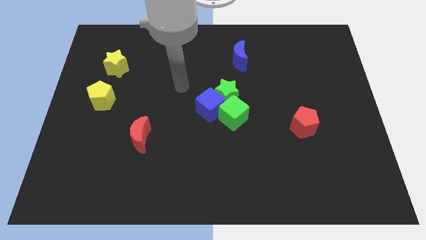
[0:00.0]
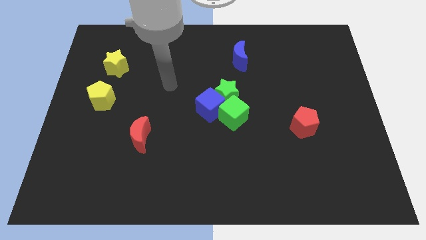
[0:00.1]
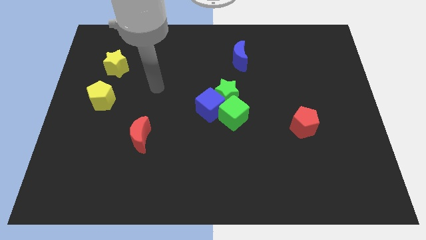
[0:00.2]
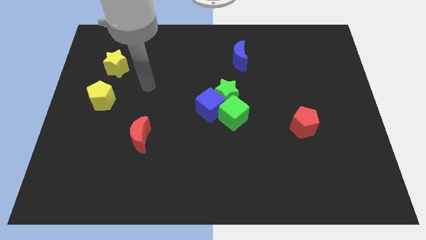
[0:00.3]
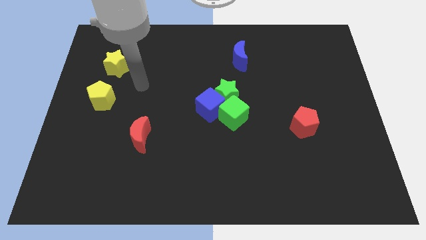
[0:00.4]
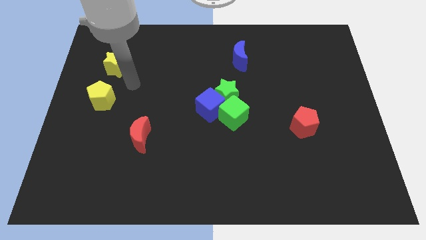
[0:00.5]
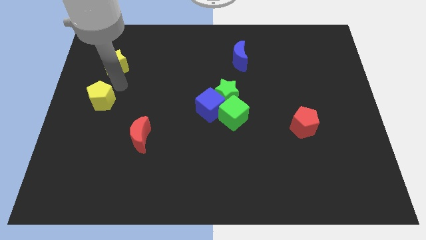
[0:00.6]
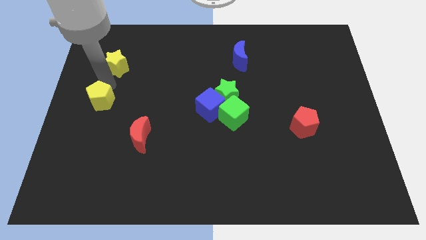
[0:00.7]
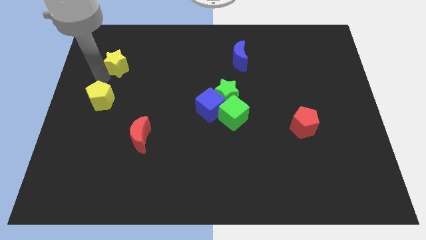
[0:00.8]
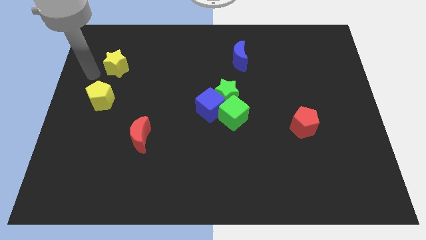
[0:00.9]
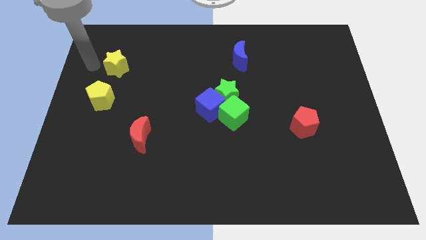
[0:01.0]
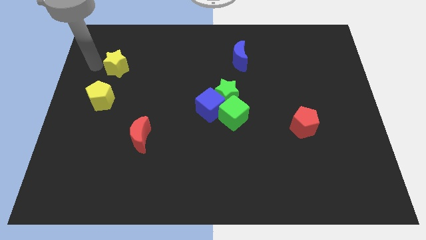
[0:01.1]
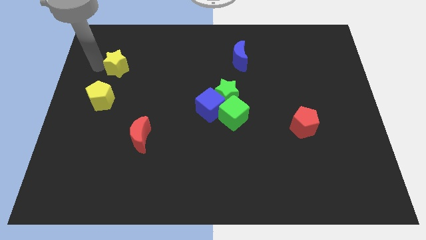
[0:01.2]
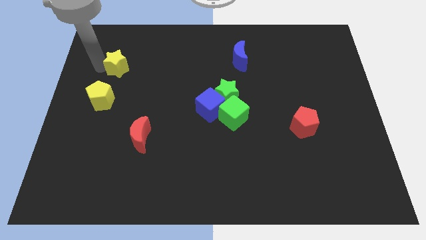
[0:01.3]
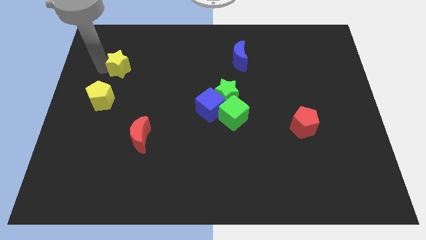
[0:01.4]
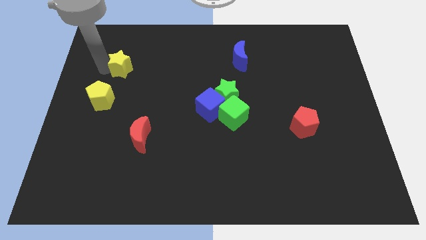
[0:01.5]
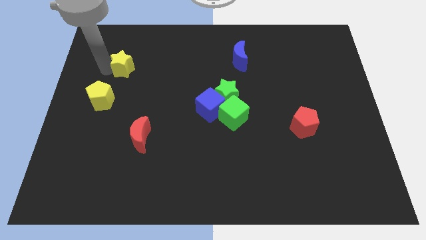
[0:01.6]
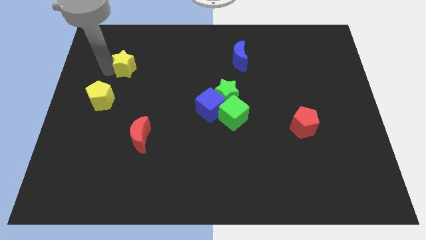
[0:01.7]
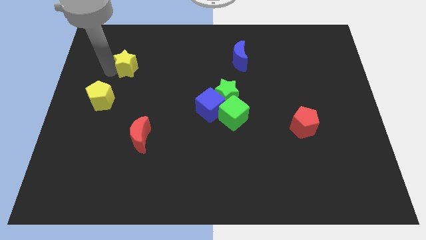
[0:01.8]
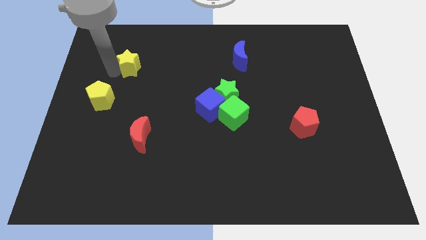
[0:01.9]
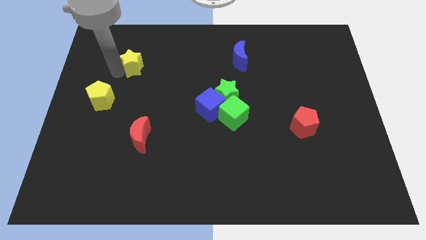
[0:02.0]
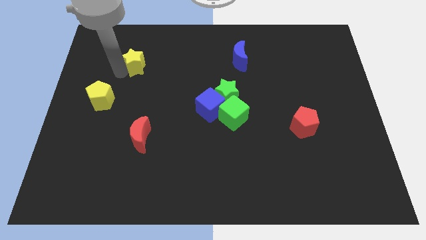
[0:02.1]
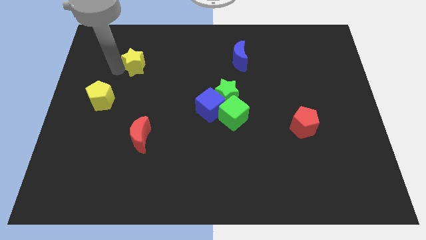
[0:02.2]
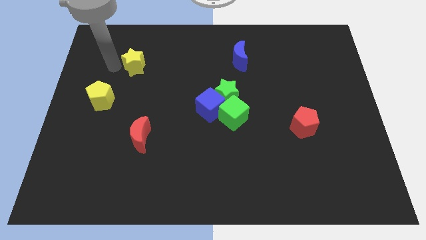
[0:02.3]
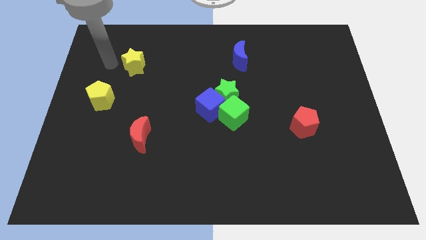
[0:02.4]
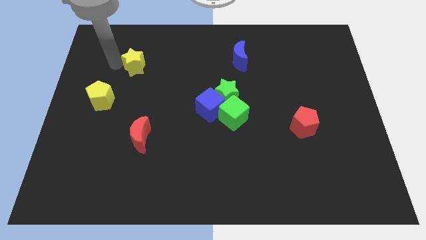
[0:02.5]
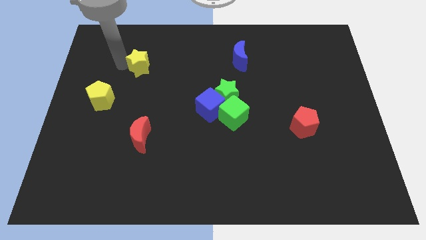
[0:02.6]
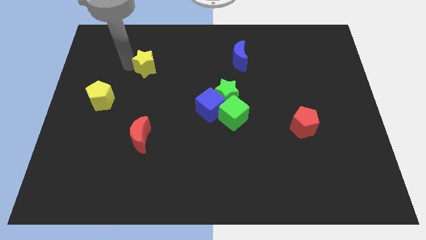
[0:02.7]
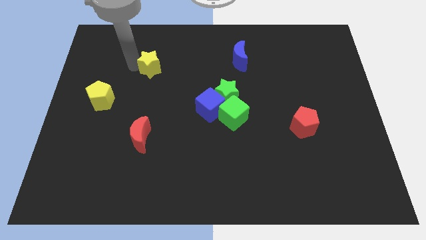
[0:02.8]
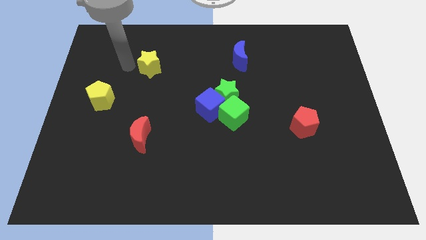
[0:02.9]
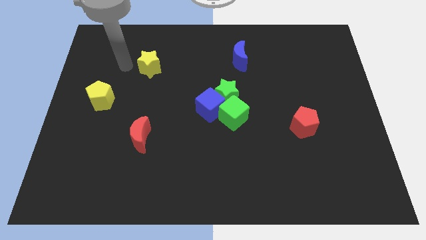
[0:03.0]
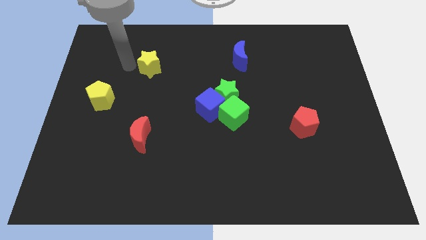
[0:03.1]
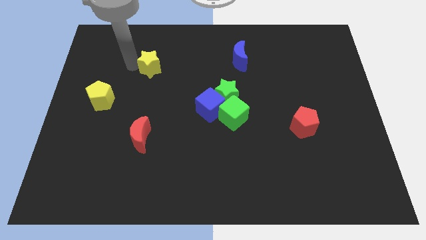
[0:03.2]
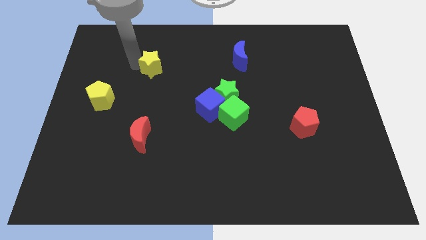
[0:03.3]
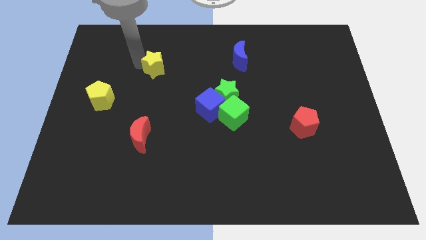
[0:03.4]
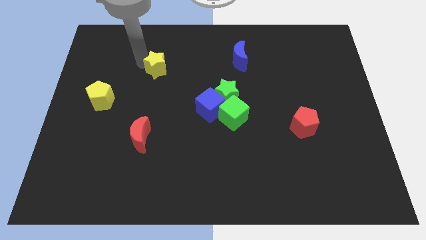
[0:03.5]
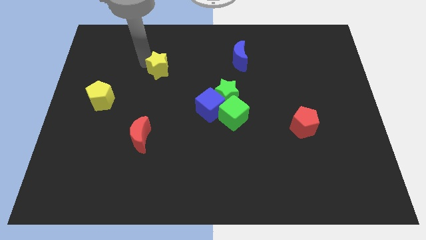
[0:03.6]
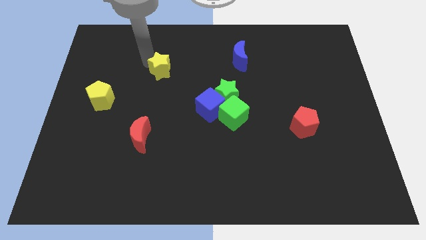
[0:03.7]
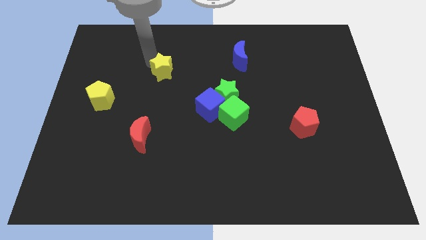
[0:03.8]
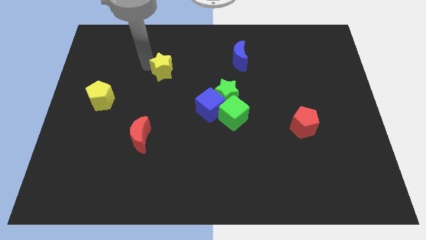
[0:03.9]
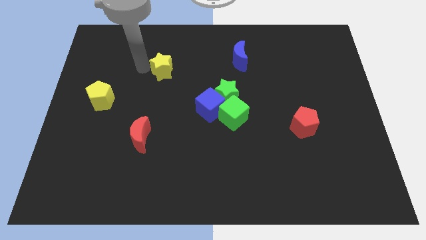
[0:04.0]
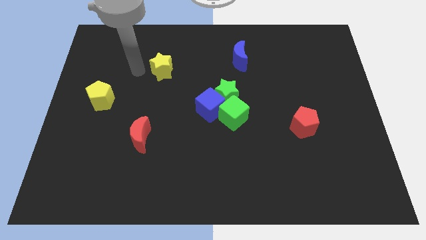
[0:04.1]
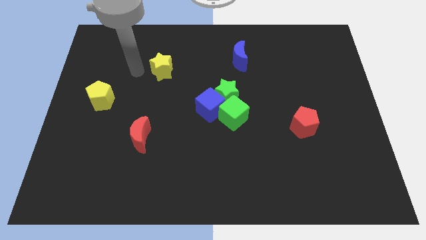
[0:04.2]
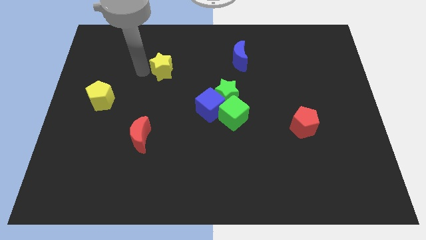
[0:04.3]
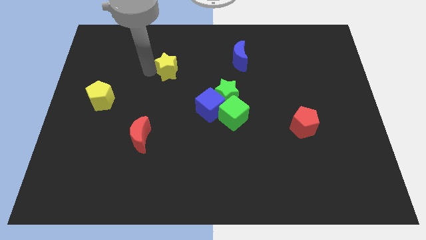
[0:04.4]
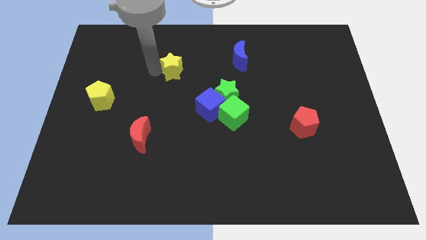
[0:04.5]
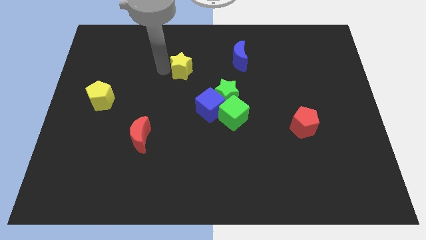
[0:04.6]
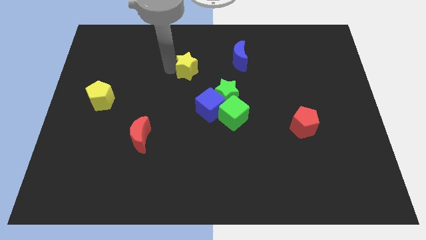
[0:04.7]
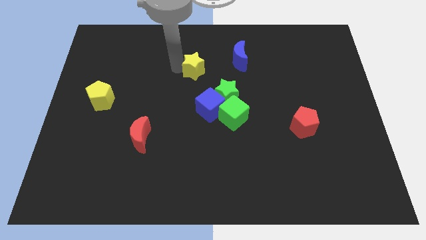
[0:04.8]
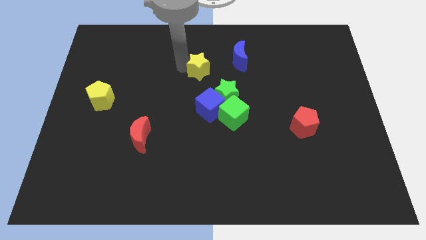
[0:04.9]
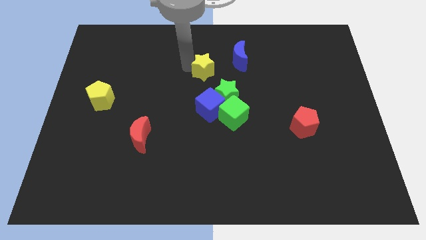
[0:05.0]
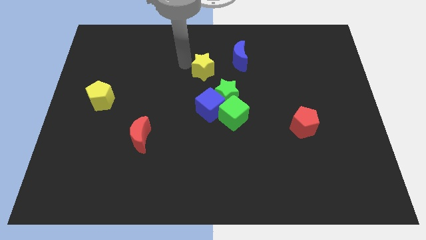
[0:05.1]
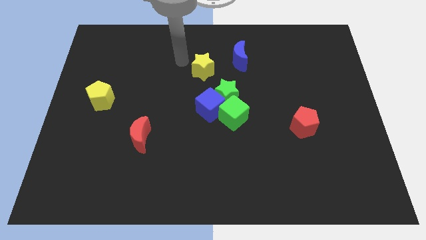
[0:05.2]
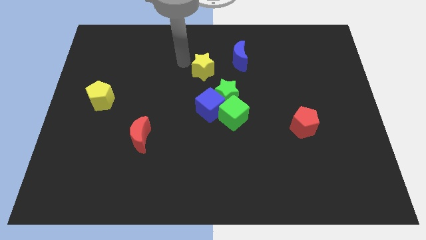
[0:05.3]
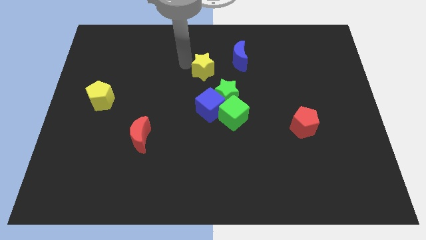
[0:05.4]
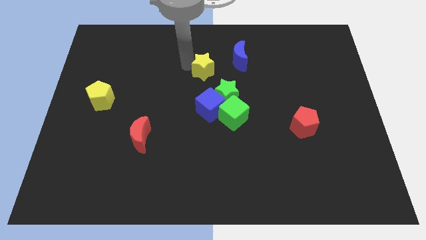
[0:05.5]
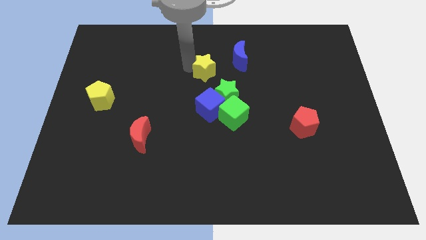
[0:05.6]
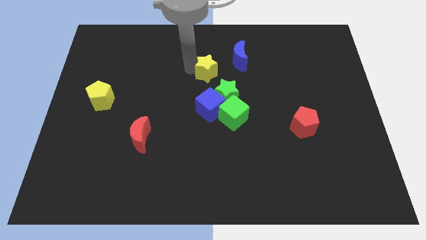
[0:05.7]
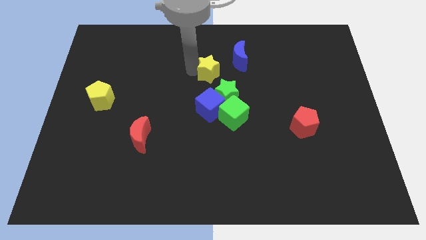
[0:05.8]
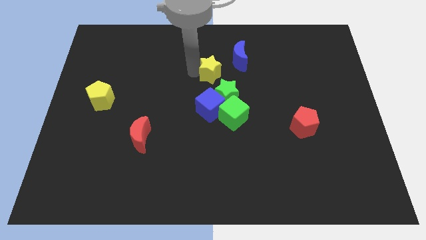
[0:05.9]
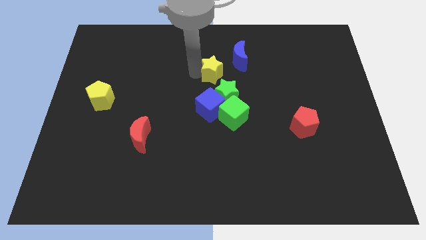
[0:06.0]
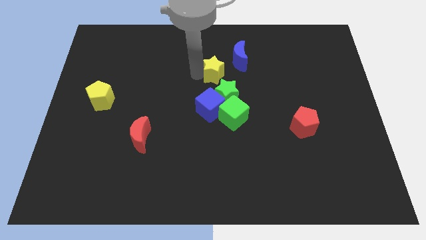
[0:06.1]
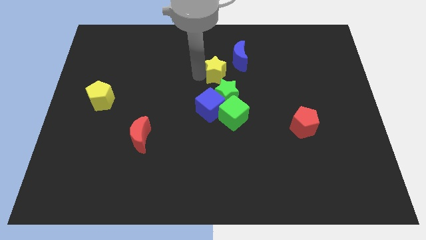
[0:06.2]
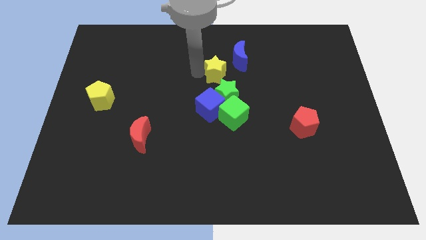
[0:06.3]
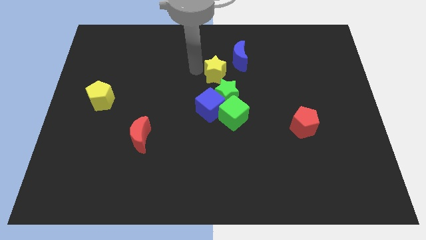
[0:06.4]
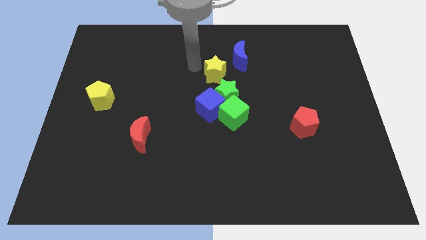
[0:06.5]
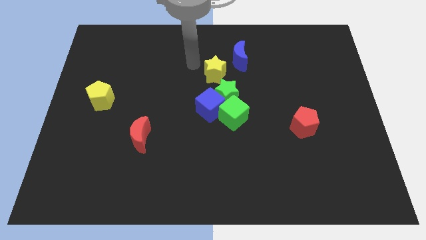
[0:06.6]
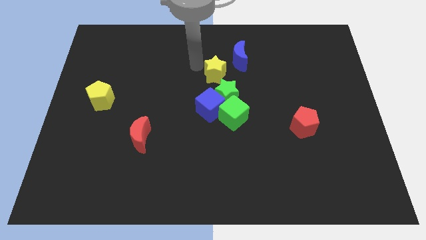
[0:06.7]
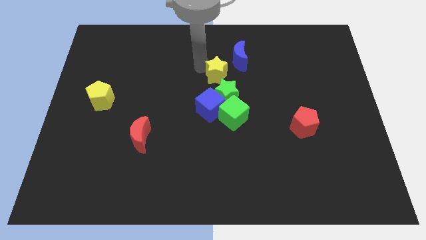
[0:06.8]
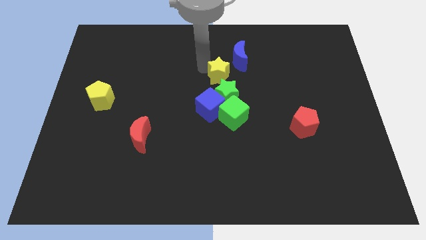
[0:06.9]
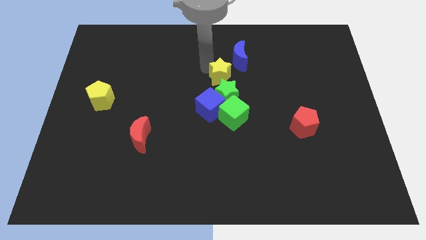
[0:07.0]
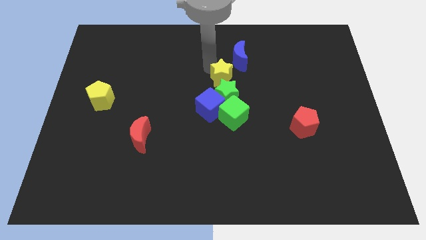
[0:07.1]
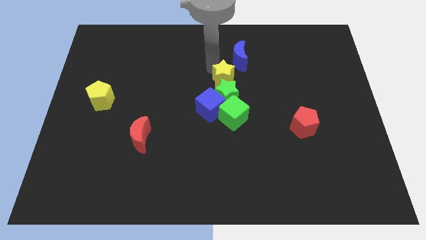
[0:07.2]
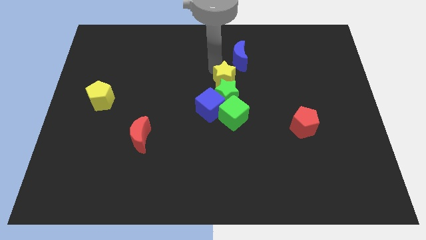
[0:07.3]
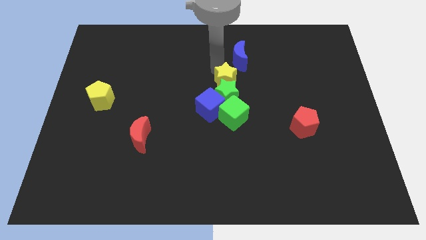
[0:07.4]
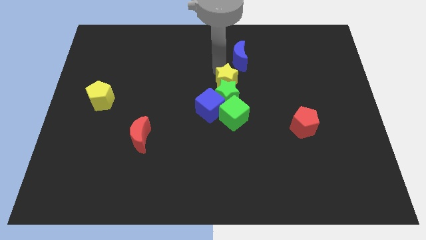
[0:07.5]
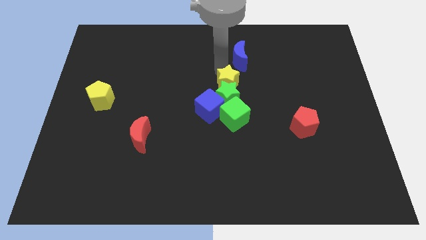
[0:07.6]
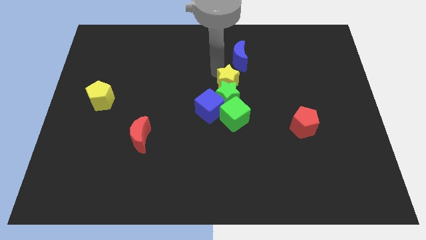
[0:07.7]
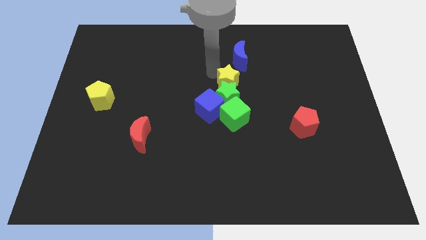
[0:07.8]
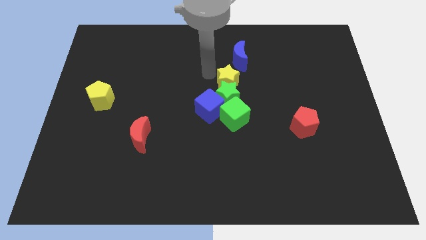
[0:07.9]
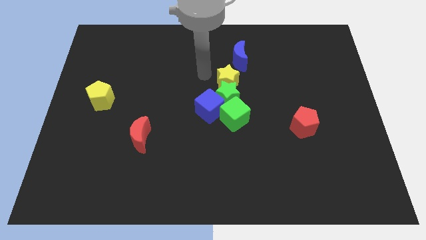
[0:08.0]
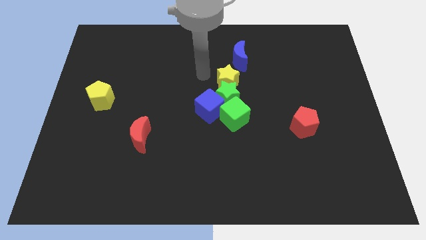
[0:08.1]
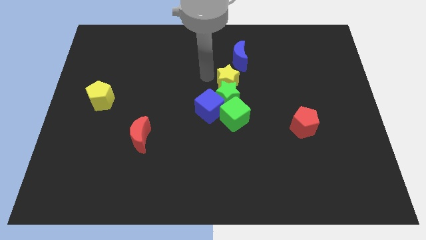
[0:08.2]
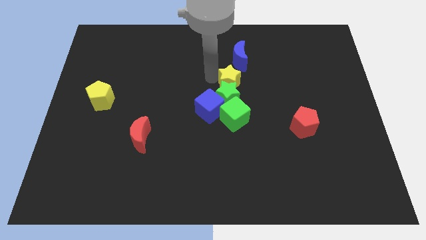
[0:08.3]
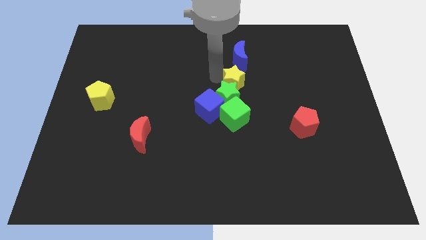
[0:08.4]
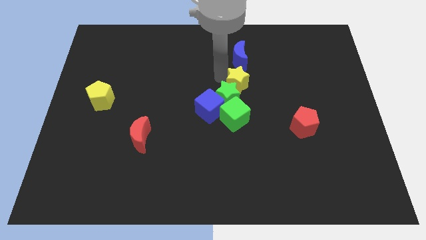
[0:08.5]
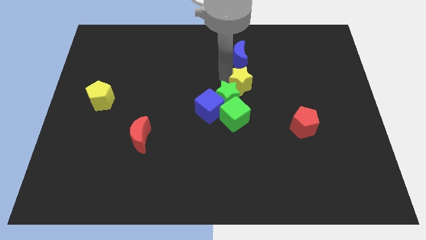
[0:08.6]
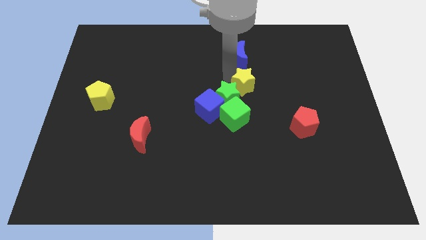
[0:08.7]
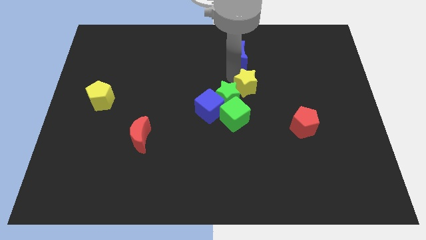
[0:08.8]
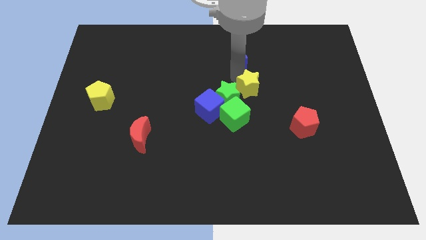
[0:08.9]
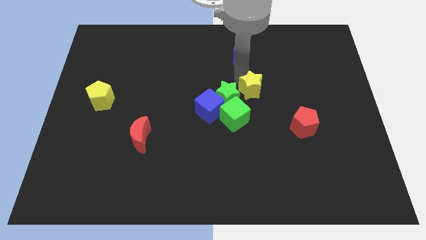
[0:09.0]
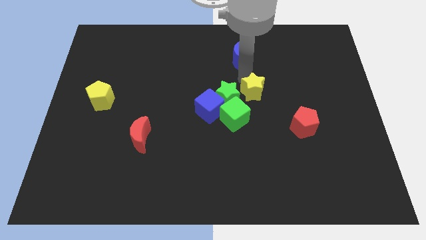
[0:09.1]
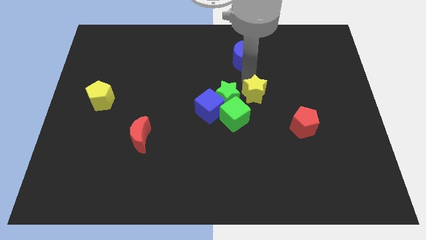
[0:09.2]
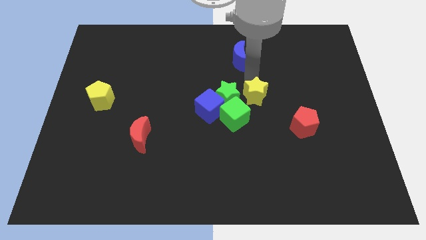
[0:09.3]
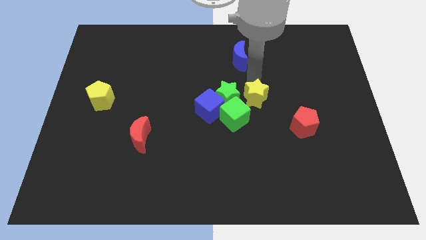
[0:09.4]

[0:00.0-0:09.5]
put the yellow star to the bottom right side of the green star
